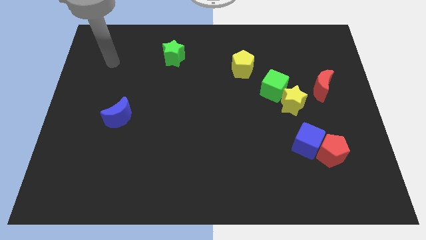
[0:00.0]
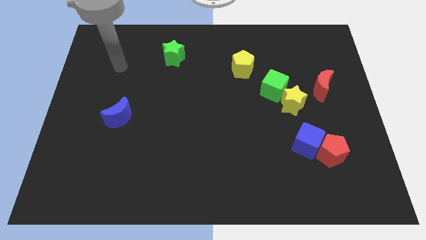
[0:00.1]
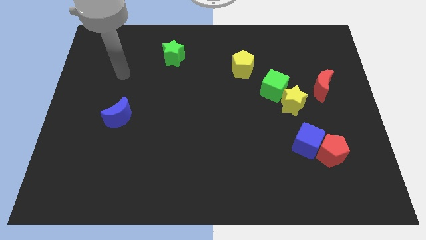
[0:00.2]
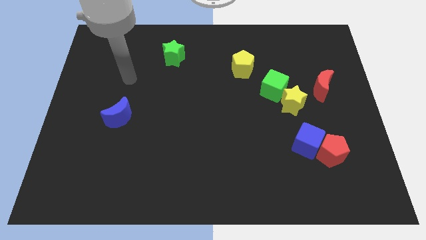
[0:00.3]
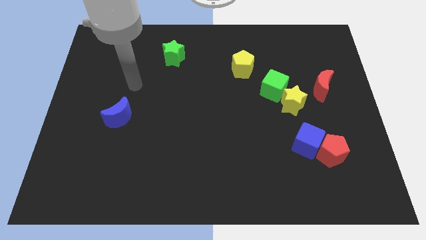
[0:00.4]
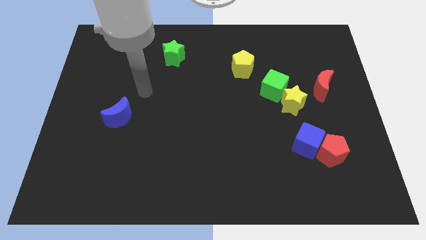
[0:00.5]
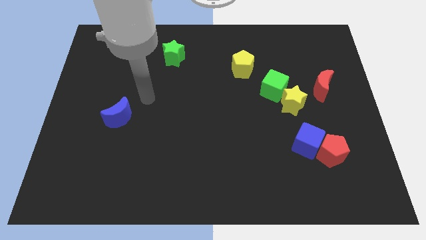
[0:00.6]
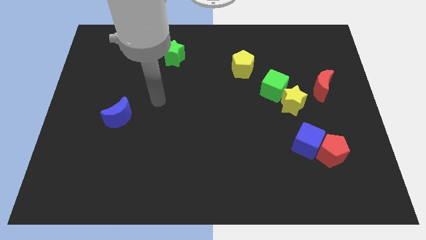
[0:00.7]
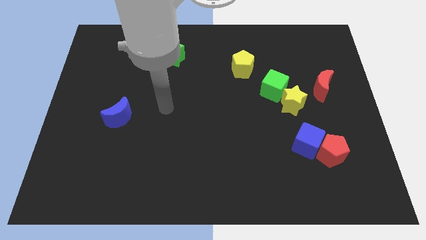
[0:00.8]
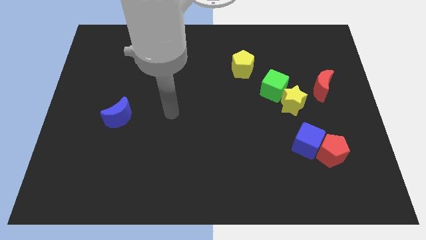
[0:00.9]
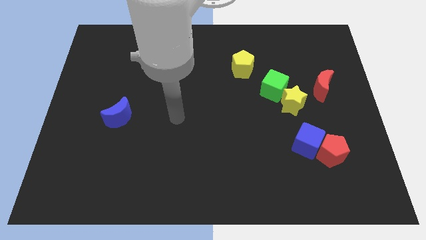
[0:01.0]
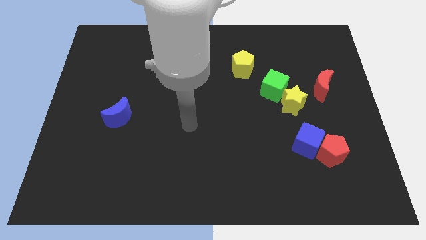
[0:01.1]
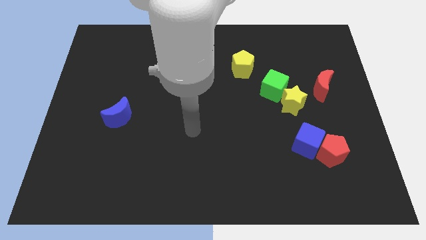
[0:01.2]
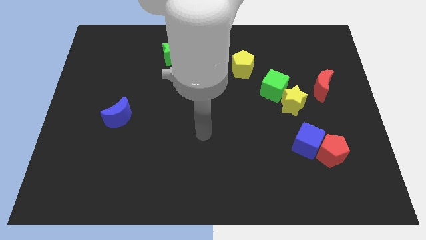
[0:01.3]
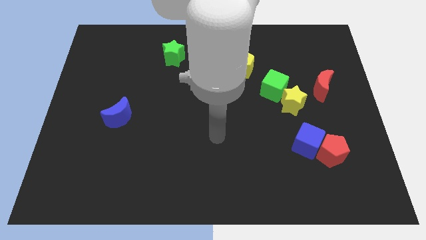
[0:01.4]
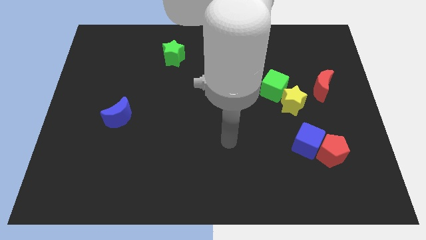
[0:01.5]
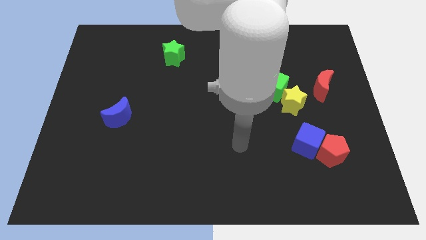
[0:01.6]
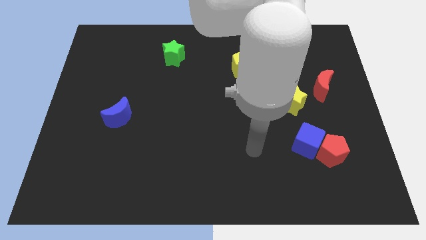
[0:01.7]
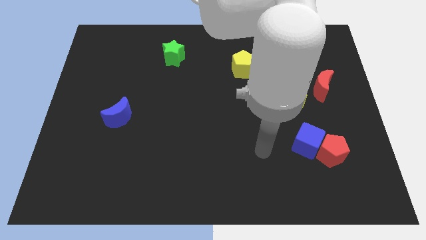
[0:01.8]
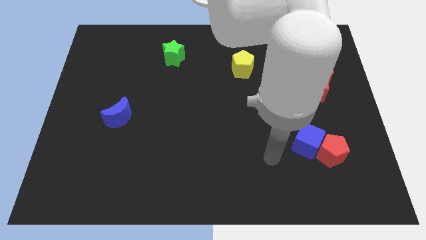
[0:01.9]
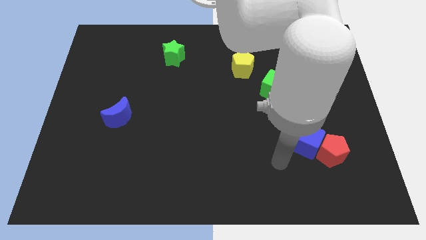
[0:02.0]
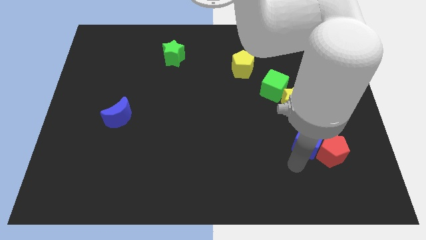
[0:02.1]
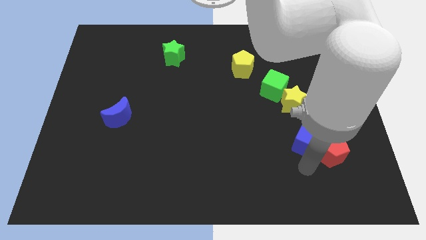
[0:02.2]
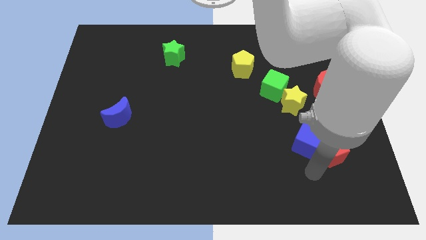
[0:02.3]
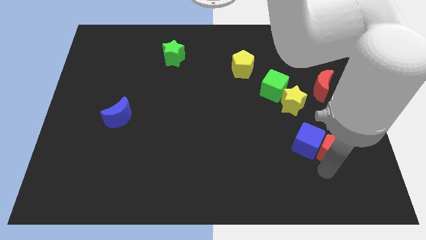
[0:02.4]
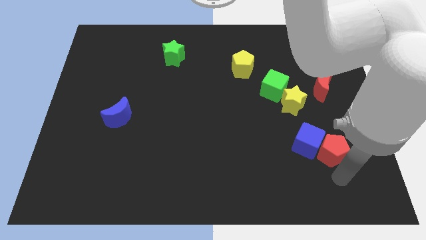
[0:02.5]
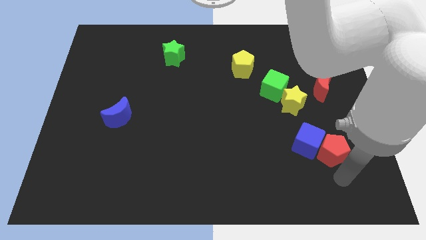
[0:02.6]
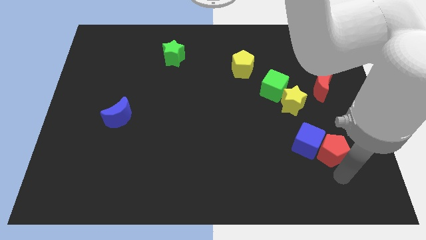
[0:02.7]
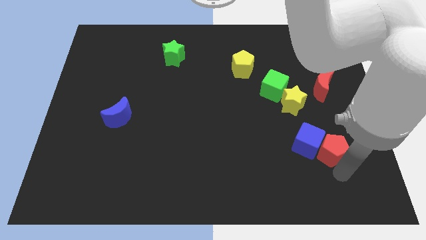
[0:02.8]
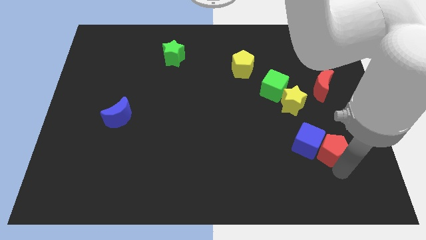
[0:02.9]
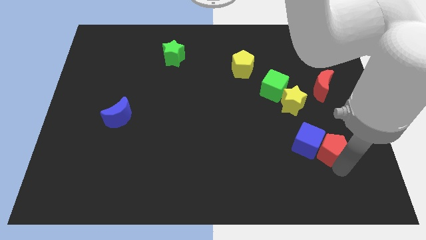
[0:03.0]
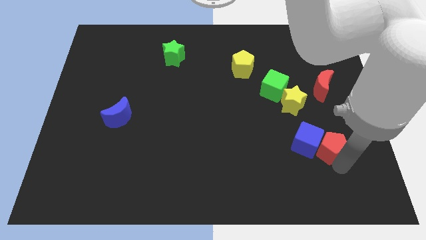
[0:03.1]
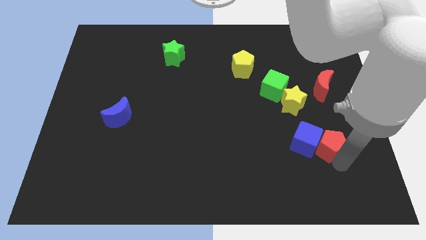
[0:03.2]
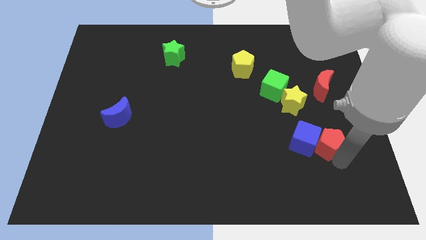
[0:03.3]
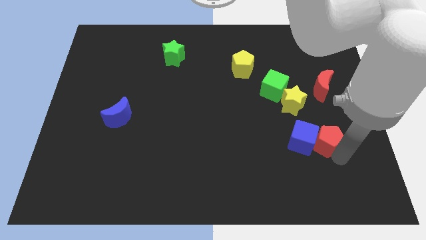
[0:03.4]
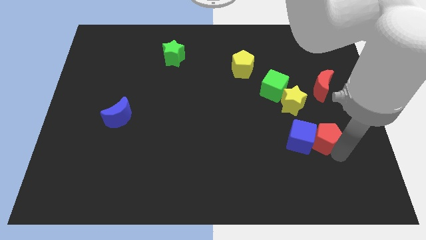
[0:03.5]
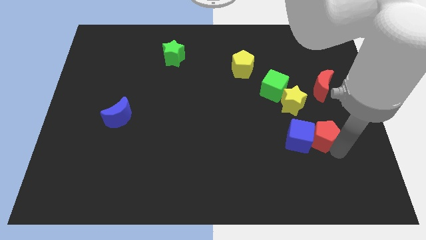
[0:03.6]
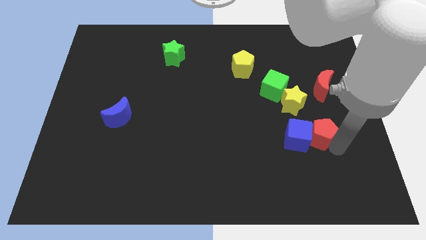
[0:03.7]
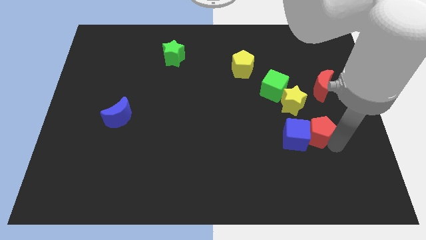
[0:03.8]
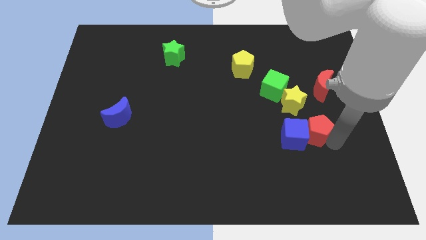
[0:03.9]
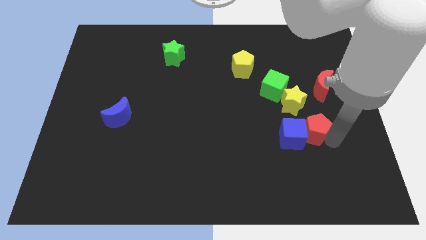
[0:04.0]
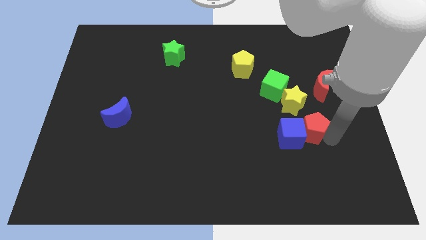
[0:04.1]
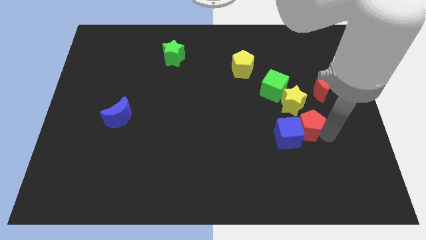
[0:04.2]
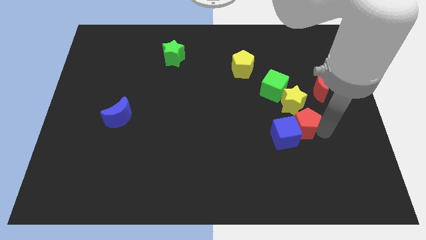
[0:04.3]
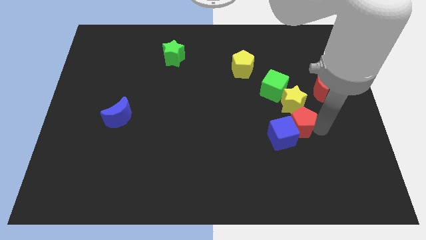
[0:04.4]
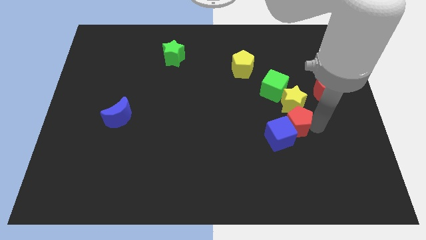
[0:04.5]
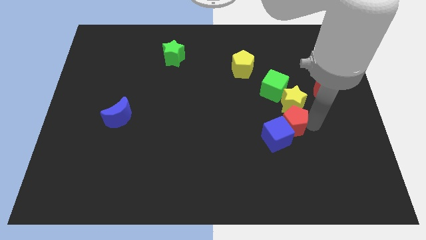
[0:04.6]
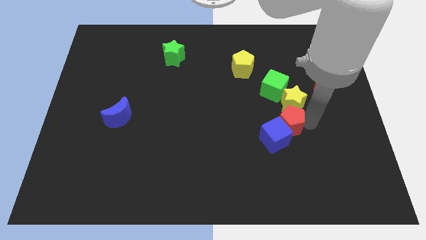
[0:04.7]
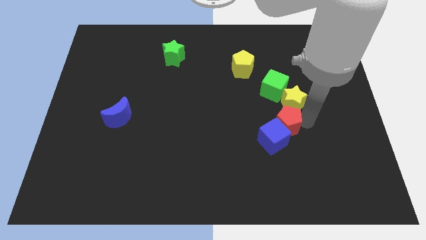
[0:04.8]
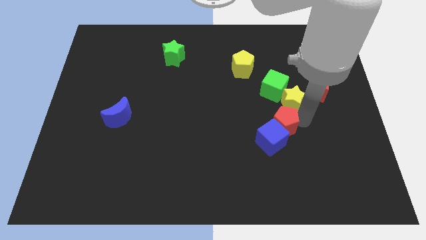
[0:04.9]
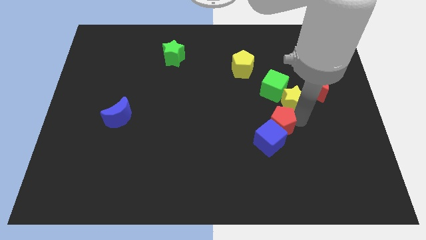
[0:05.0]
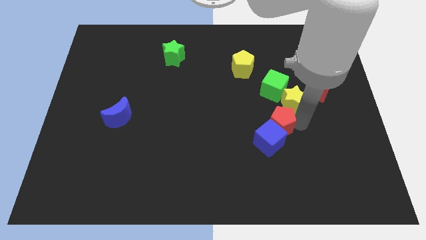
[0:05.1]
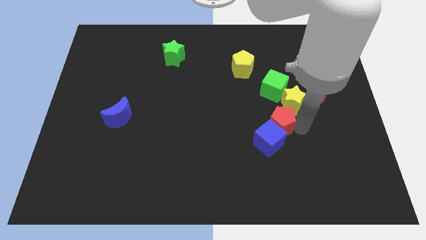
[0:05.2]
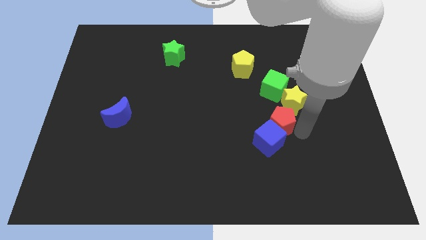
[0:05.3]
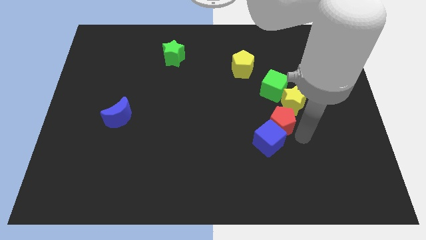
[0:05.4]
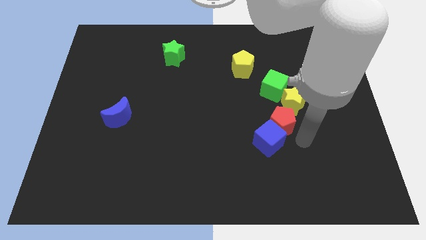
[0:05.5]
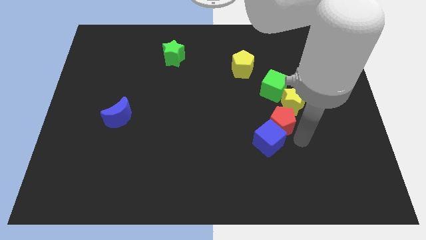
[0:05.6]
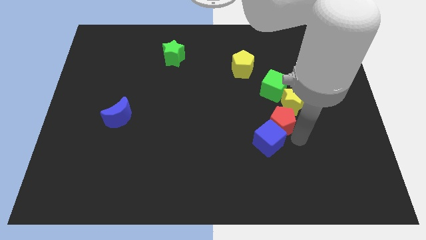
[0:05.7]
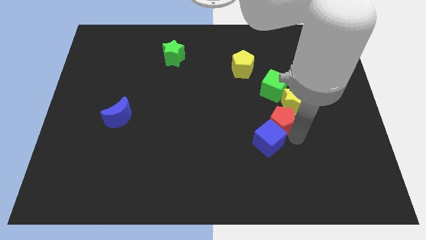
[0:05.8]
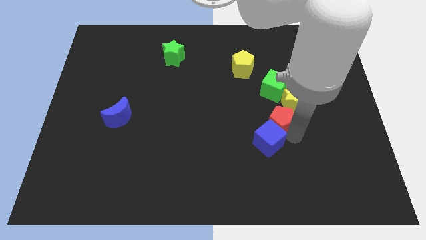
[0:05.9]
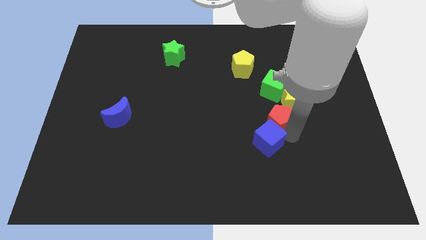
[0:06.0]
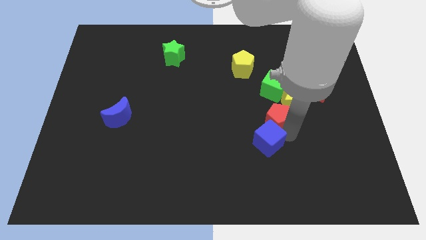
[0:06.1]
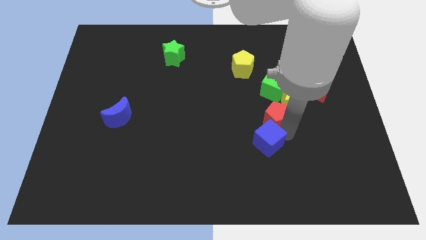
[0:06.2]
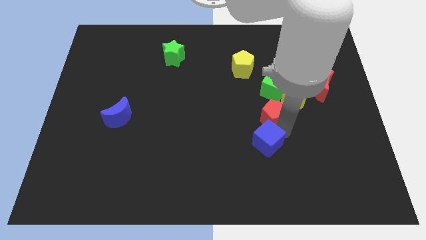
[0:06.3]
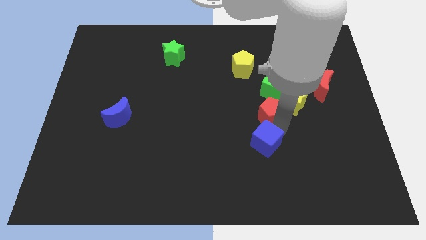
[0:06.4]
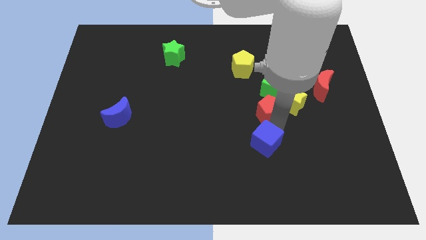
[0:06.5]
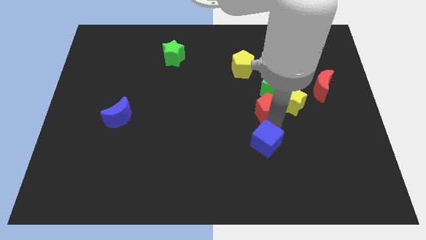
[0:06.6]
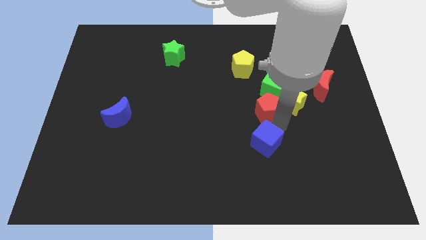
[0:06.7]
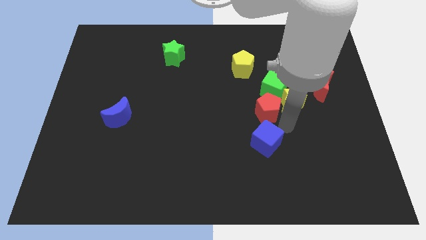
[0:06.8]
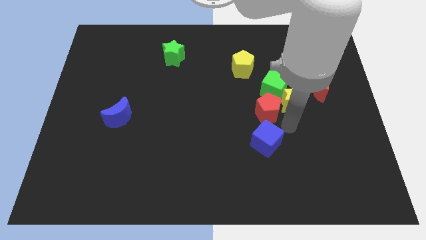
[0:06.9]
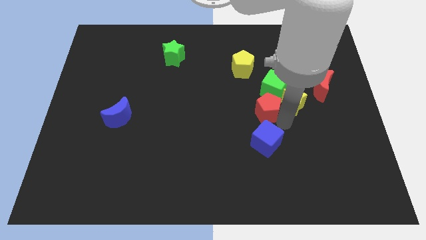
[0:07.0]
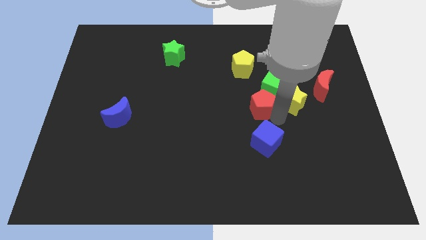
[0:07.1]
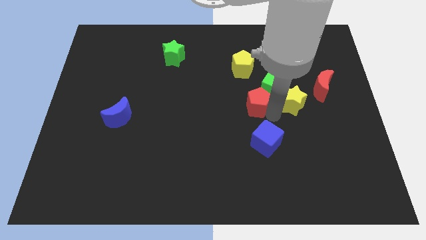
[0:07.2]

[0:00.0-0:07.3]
slide the red pentagon upwards and to the left diagonally
